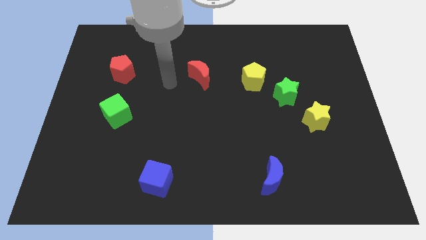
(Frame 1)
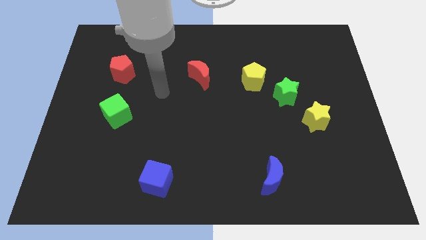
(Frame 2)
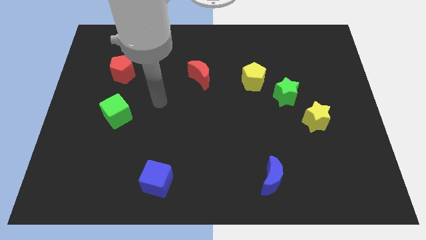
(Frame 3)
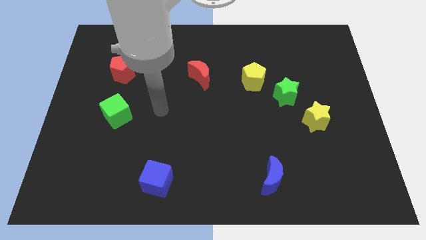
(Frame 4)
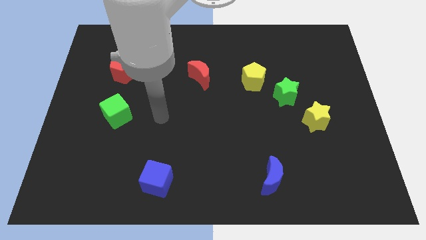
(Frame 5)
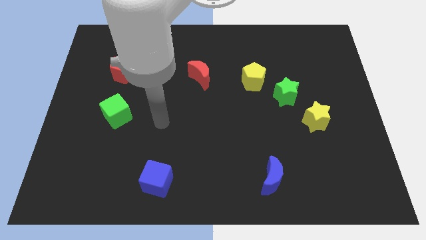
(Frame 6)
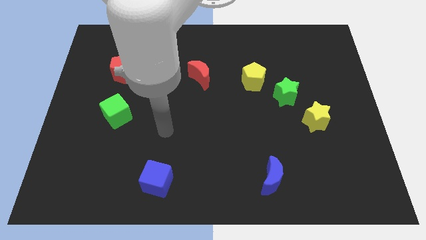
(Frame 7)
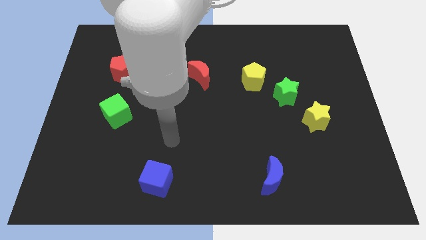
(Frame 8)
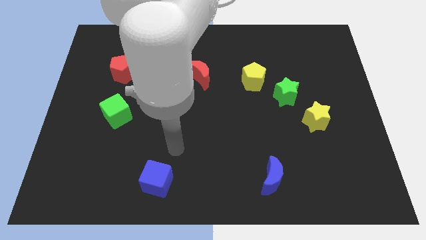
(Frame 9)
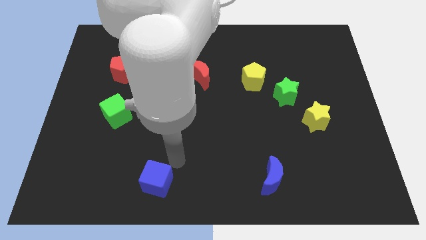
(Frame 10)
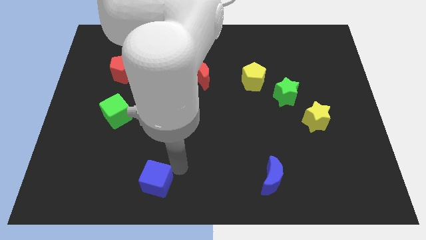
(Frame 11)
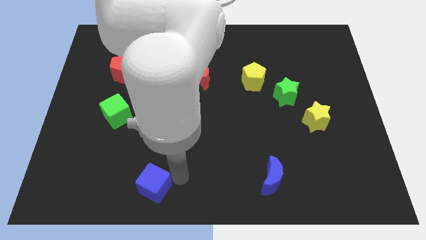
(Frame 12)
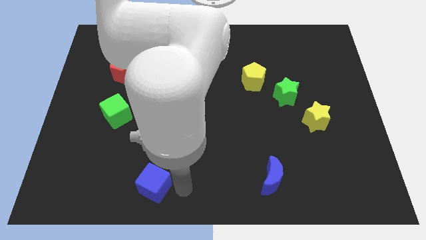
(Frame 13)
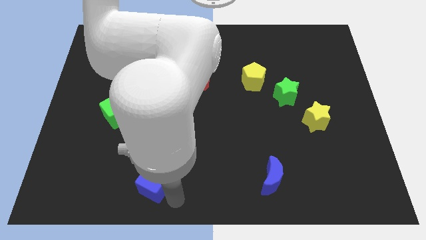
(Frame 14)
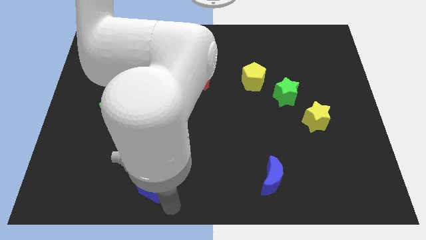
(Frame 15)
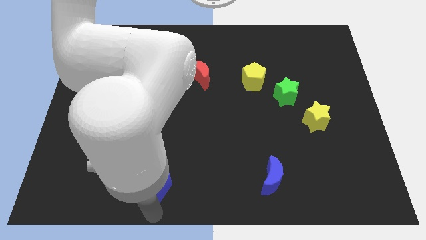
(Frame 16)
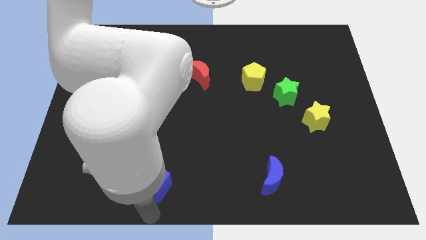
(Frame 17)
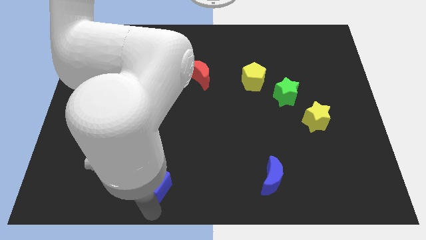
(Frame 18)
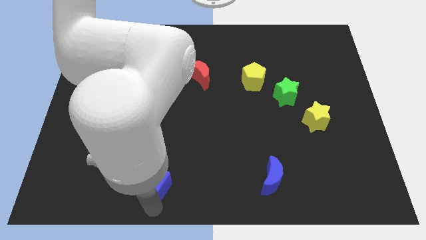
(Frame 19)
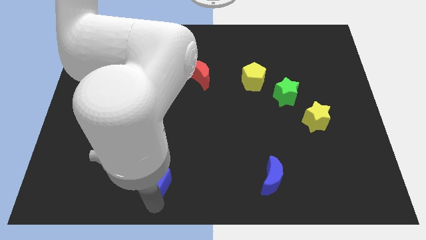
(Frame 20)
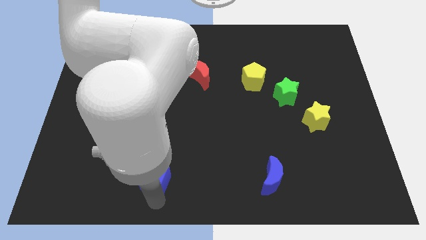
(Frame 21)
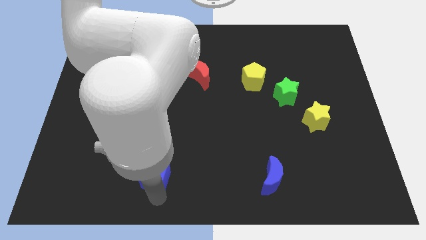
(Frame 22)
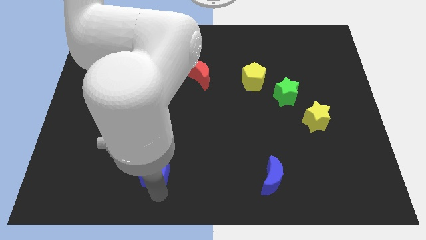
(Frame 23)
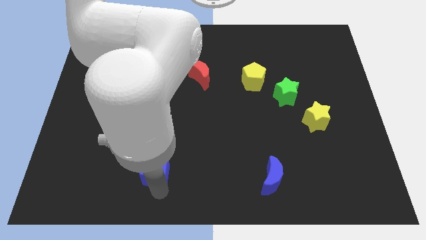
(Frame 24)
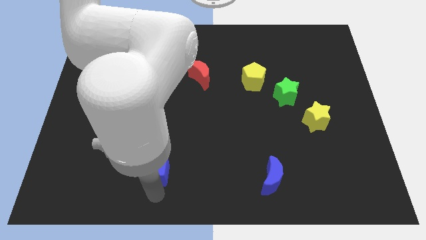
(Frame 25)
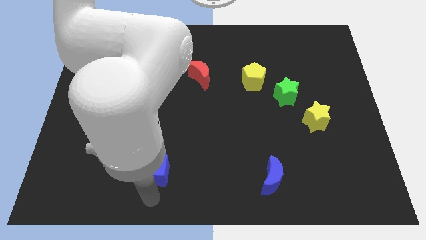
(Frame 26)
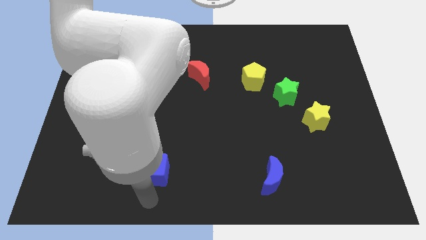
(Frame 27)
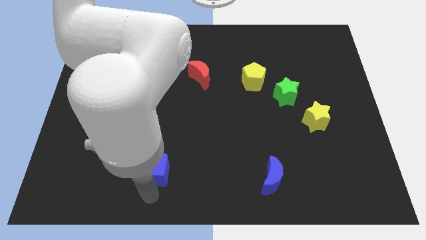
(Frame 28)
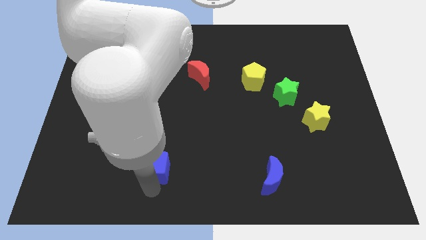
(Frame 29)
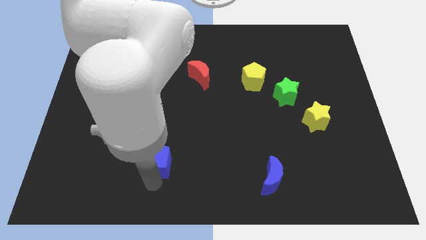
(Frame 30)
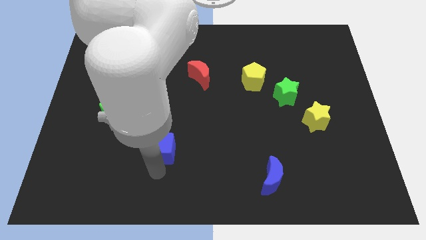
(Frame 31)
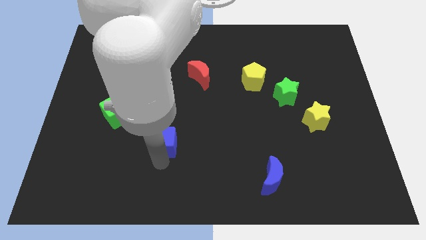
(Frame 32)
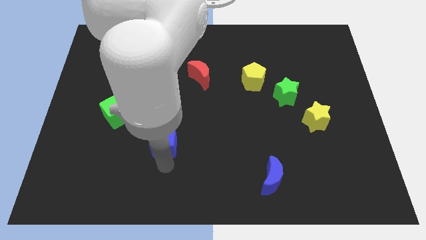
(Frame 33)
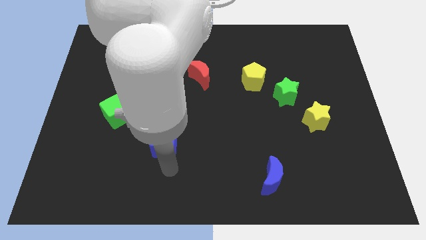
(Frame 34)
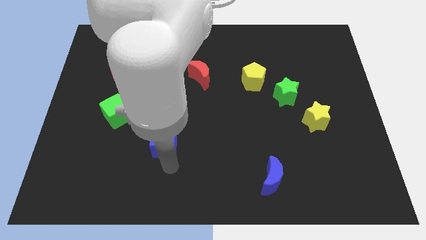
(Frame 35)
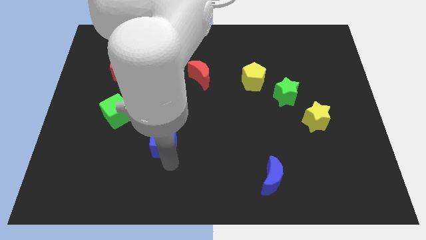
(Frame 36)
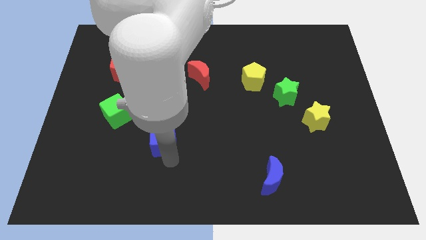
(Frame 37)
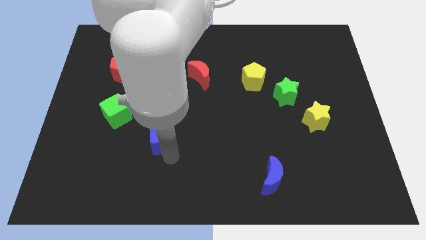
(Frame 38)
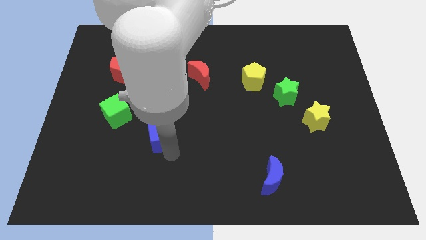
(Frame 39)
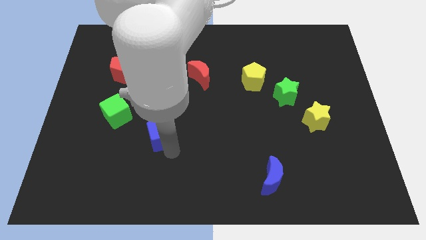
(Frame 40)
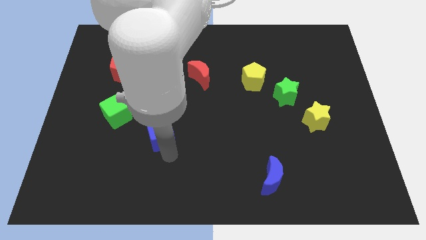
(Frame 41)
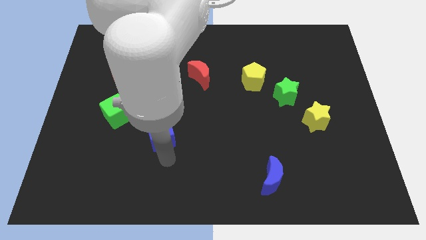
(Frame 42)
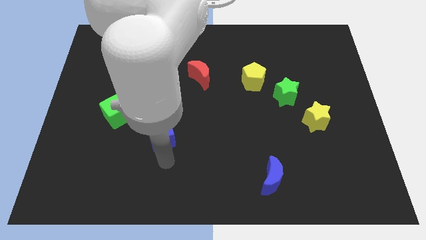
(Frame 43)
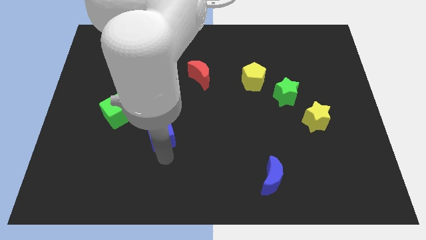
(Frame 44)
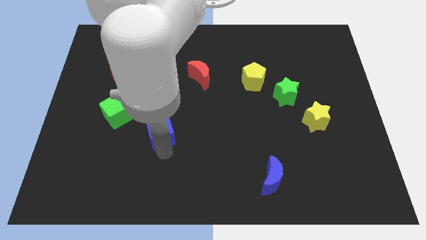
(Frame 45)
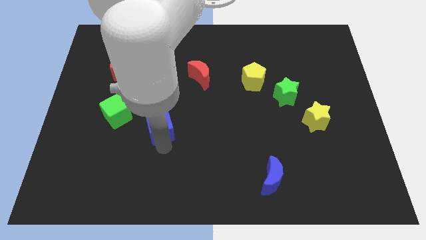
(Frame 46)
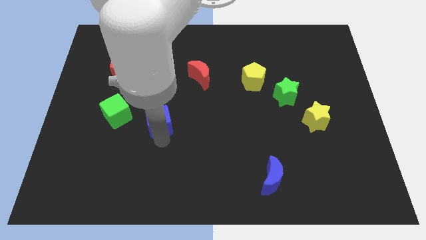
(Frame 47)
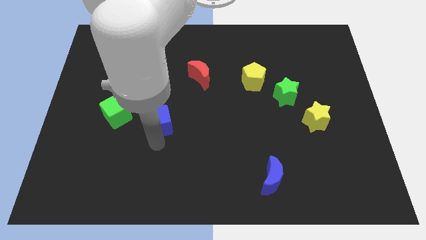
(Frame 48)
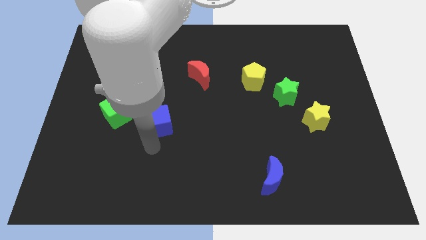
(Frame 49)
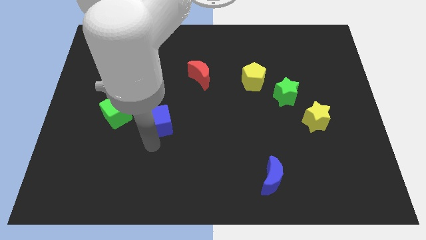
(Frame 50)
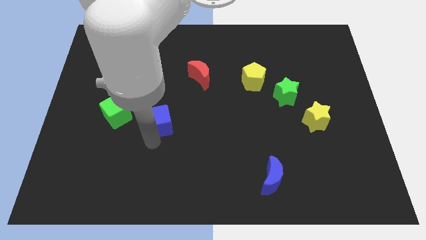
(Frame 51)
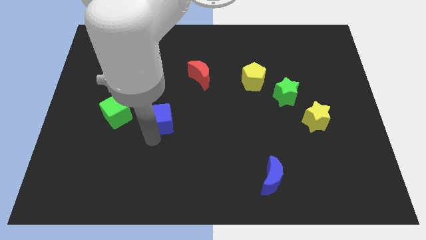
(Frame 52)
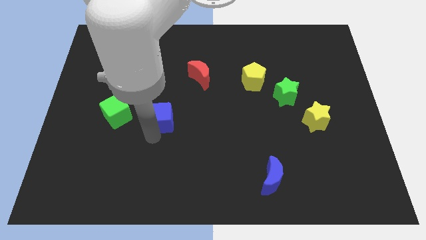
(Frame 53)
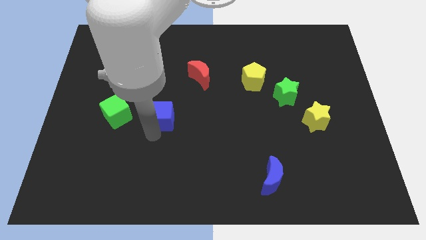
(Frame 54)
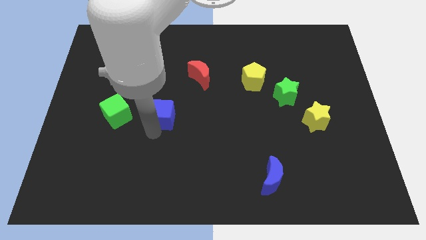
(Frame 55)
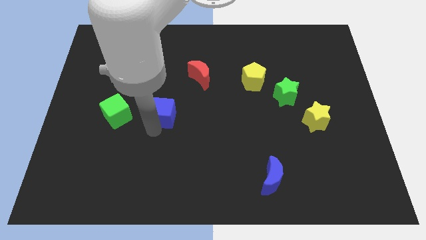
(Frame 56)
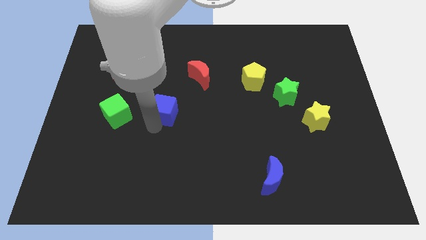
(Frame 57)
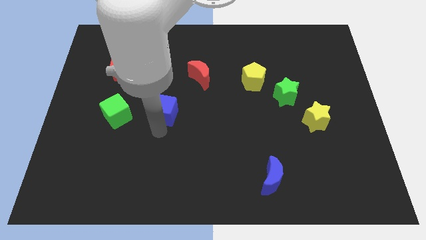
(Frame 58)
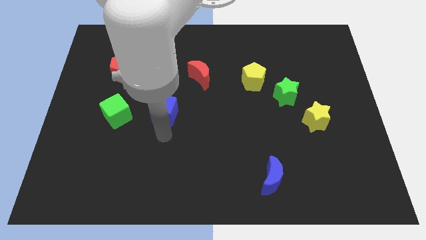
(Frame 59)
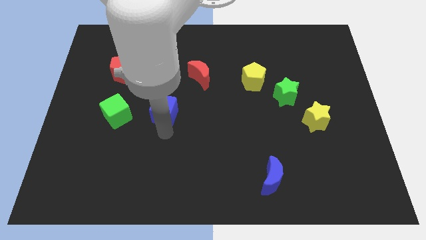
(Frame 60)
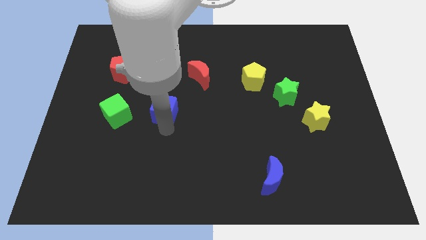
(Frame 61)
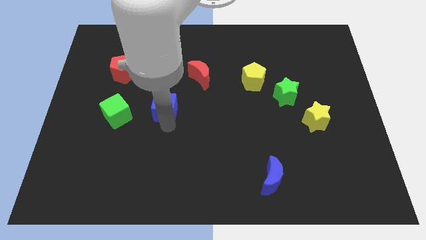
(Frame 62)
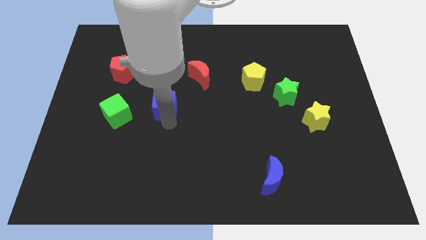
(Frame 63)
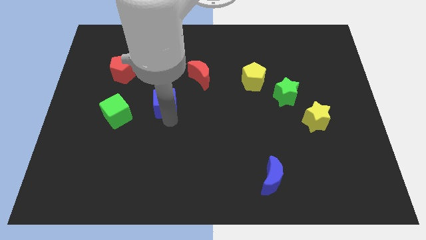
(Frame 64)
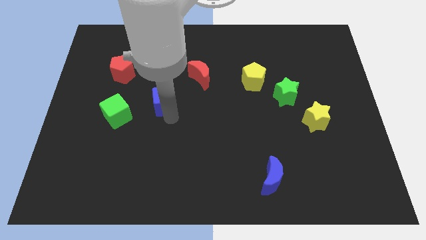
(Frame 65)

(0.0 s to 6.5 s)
move the blue cube upwards

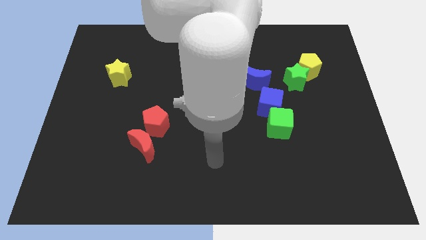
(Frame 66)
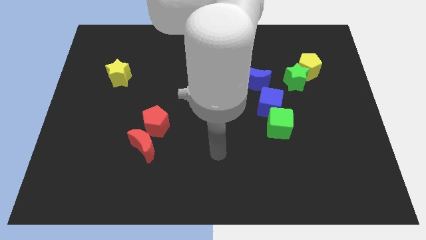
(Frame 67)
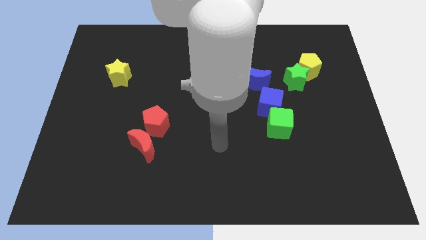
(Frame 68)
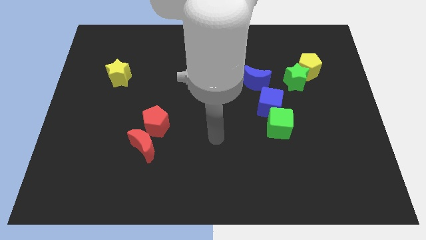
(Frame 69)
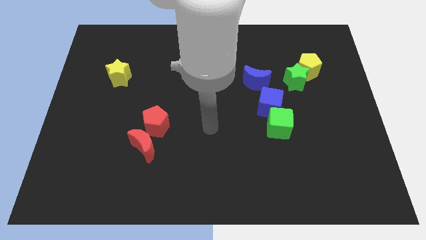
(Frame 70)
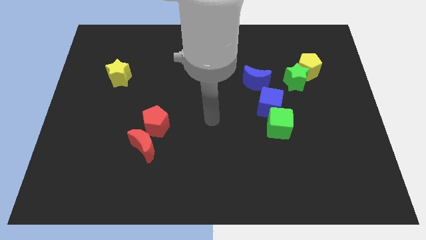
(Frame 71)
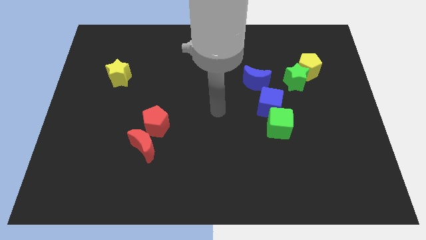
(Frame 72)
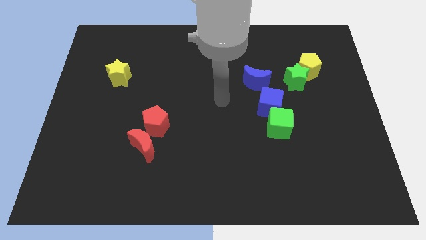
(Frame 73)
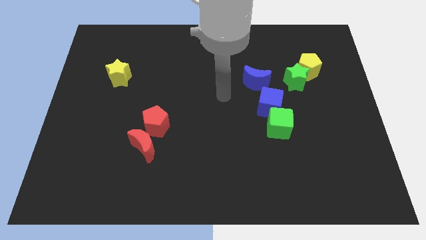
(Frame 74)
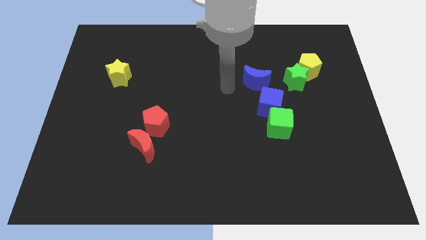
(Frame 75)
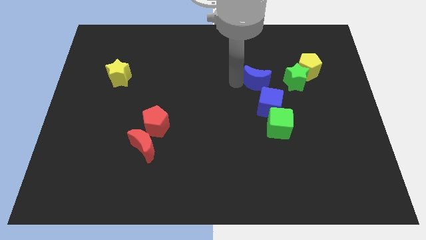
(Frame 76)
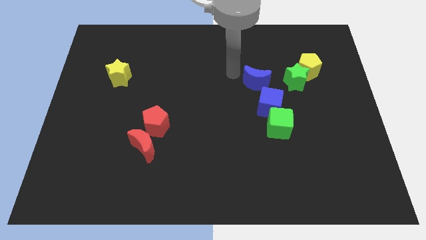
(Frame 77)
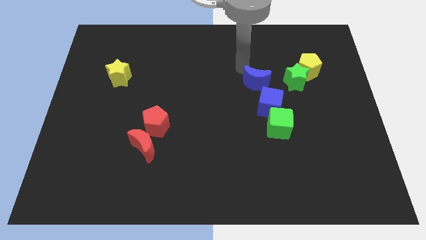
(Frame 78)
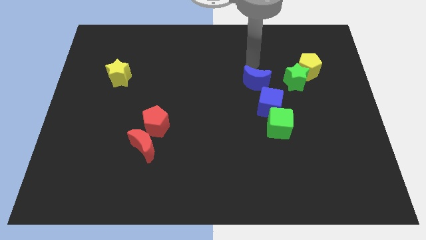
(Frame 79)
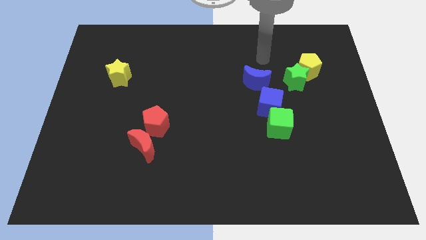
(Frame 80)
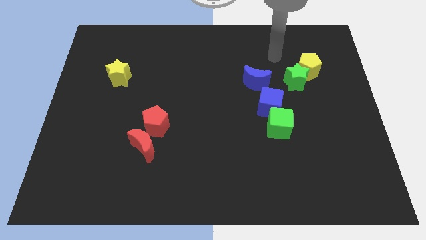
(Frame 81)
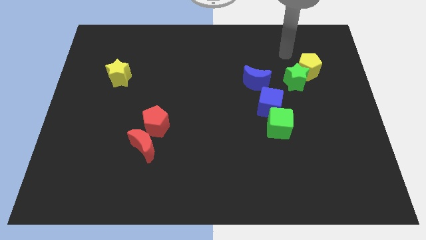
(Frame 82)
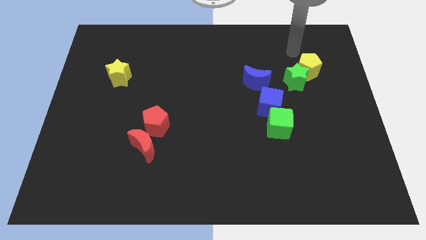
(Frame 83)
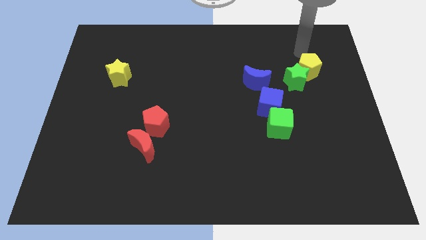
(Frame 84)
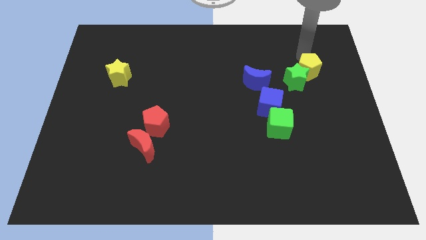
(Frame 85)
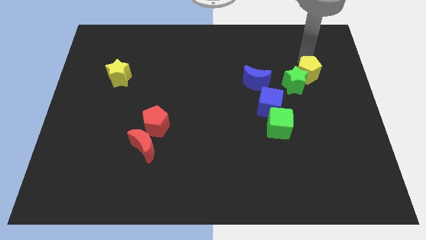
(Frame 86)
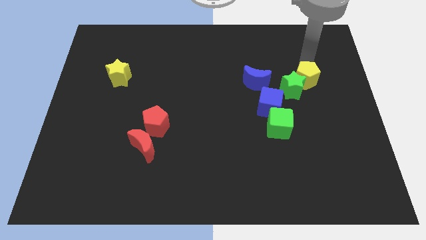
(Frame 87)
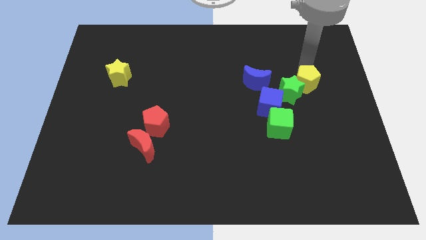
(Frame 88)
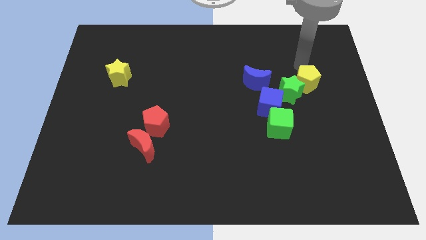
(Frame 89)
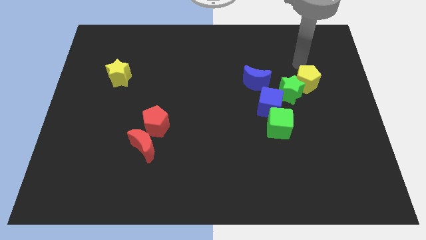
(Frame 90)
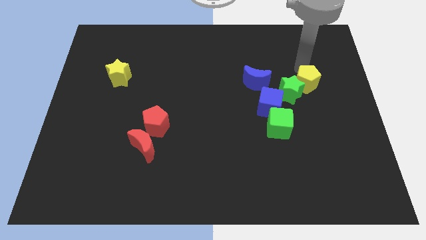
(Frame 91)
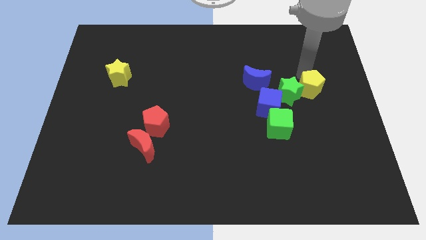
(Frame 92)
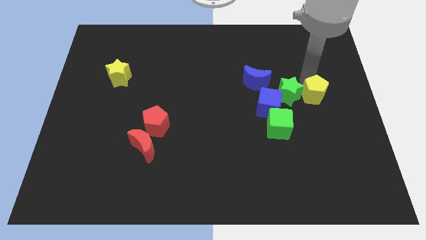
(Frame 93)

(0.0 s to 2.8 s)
slightly move the yellow pentagon down
